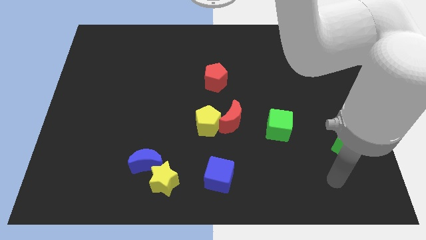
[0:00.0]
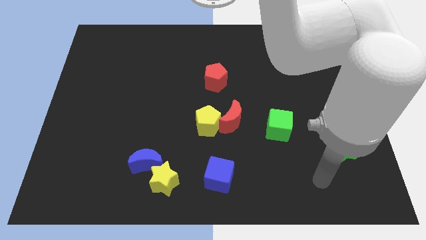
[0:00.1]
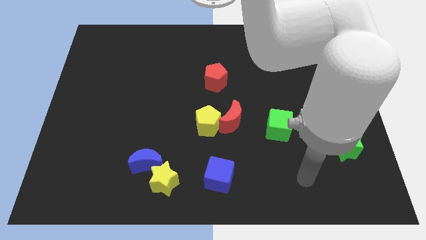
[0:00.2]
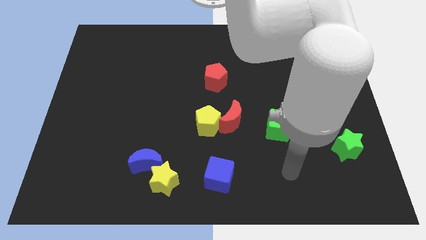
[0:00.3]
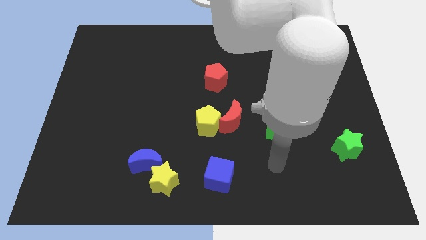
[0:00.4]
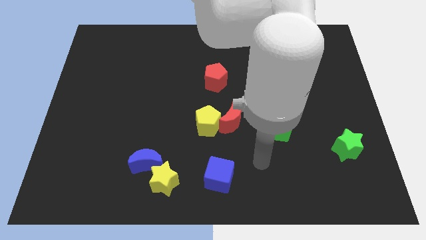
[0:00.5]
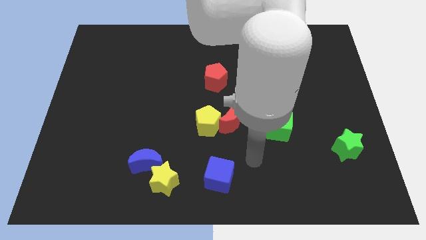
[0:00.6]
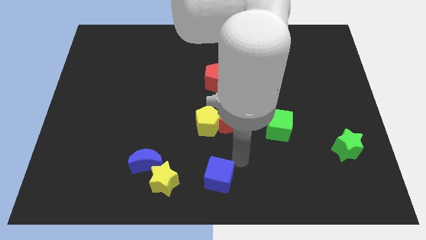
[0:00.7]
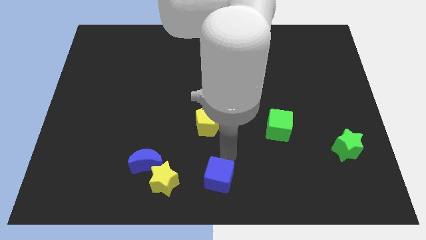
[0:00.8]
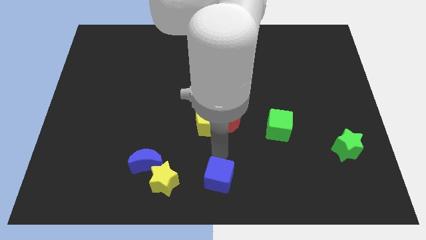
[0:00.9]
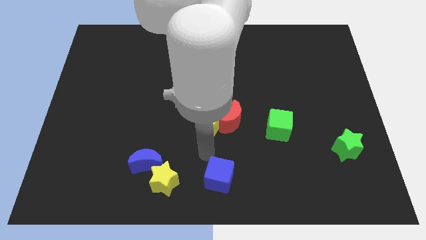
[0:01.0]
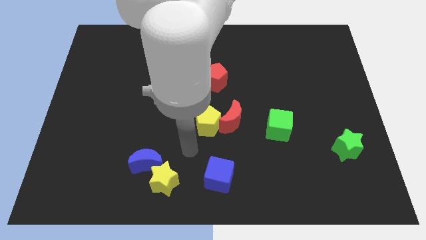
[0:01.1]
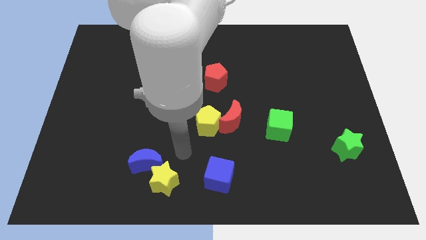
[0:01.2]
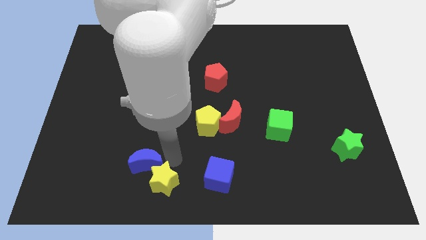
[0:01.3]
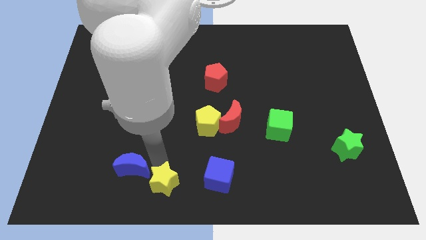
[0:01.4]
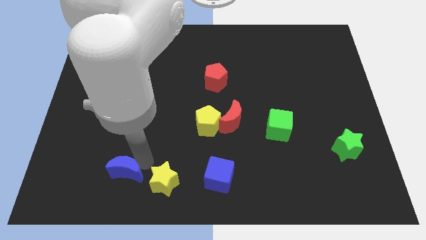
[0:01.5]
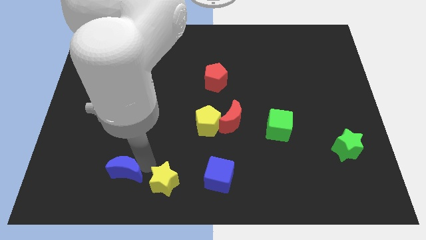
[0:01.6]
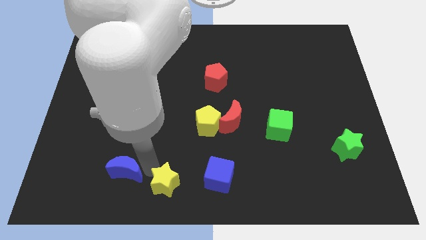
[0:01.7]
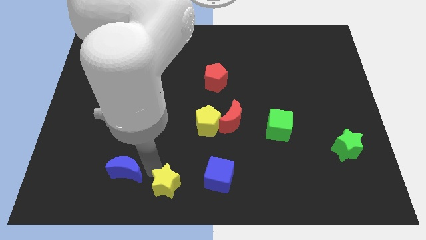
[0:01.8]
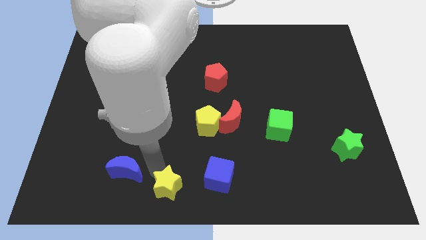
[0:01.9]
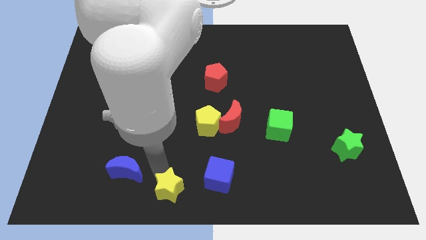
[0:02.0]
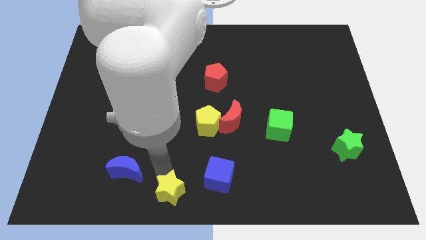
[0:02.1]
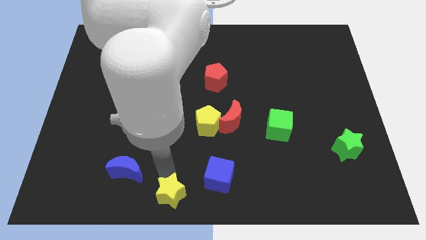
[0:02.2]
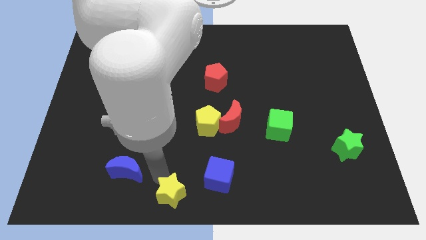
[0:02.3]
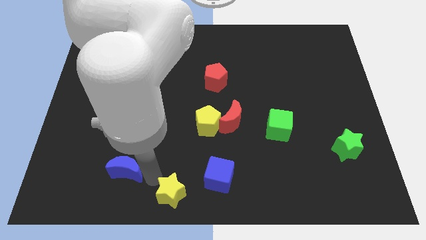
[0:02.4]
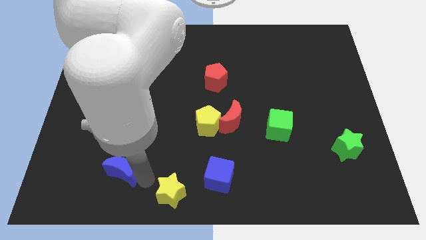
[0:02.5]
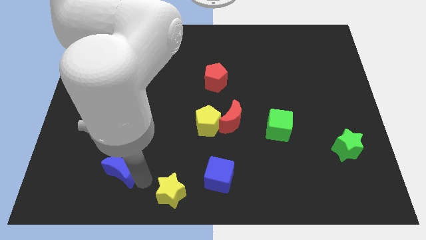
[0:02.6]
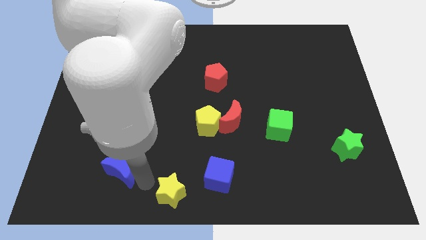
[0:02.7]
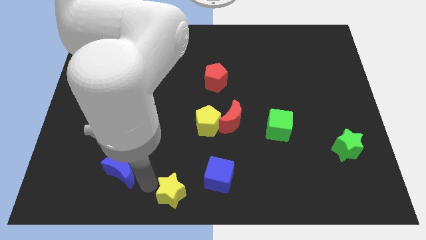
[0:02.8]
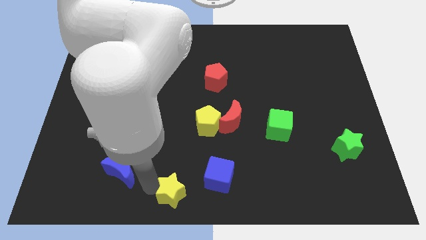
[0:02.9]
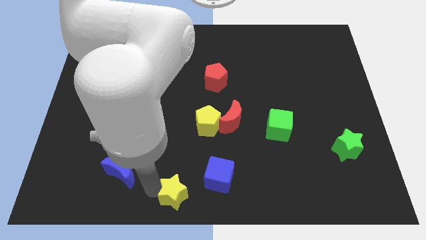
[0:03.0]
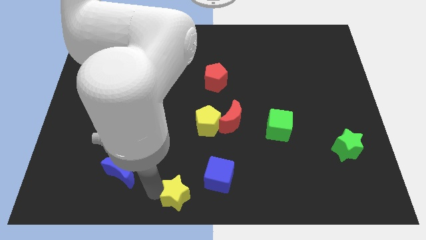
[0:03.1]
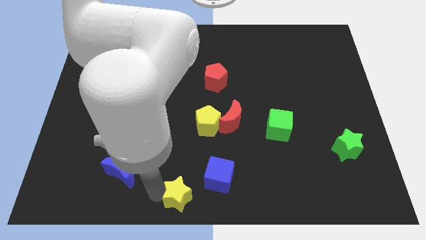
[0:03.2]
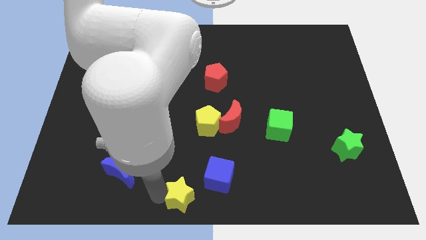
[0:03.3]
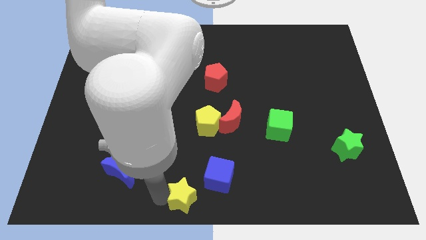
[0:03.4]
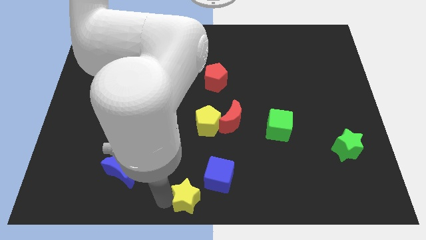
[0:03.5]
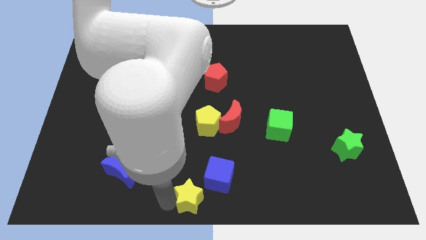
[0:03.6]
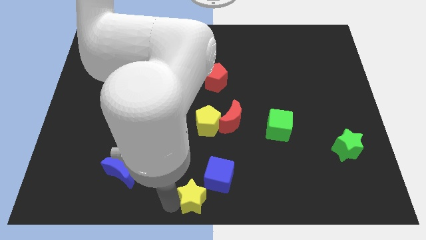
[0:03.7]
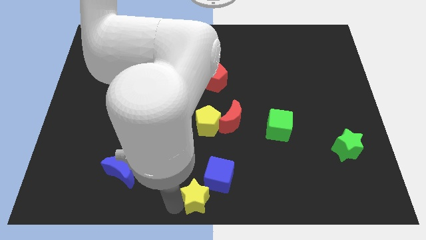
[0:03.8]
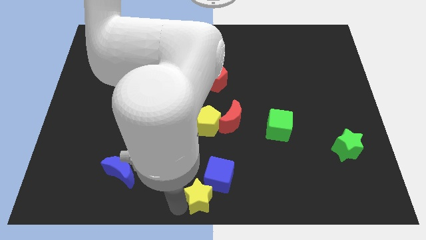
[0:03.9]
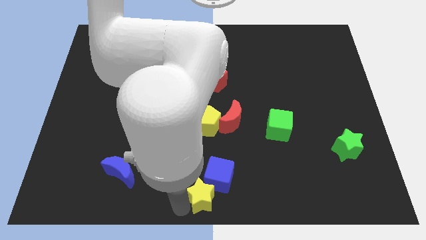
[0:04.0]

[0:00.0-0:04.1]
move the yellow star a little right

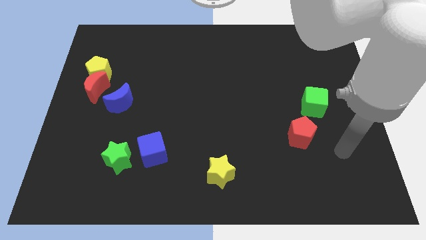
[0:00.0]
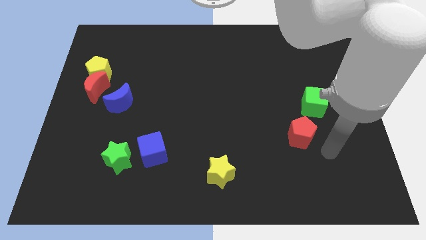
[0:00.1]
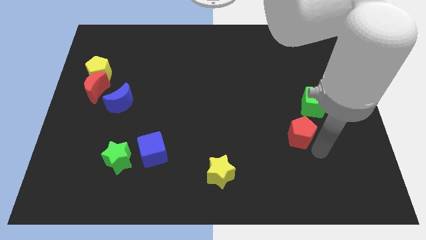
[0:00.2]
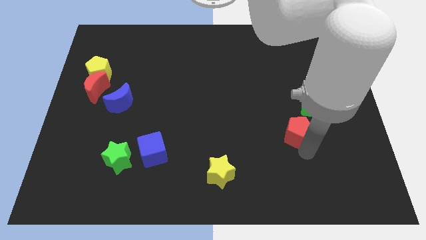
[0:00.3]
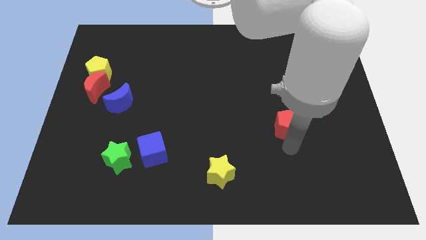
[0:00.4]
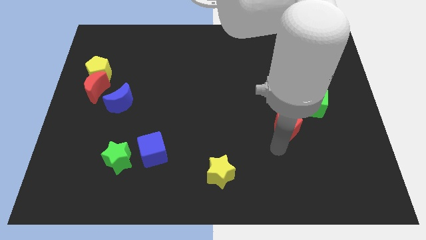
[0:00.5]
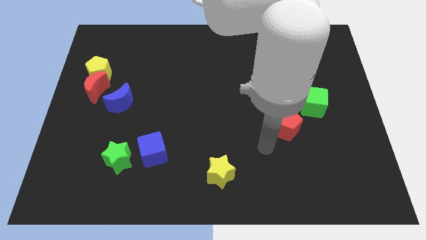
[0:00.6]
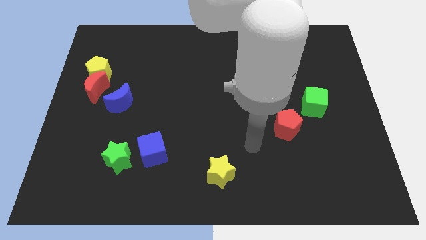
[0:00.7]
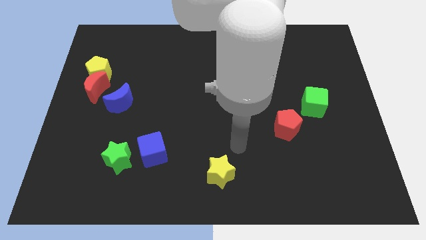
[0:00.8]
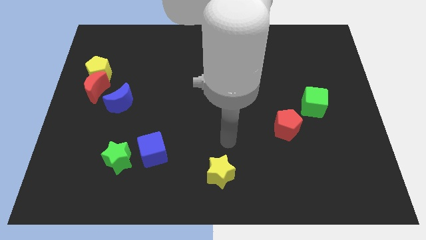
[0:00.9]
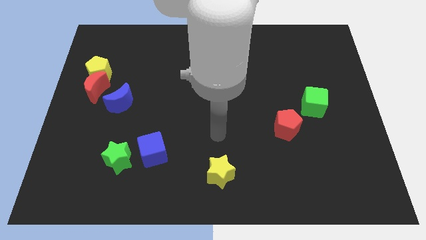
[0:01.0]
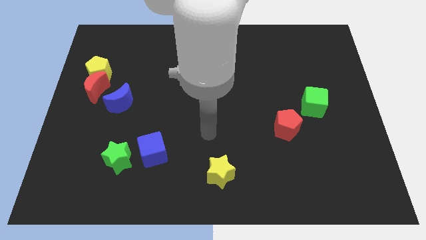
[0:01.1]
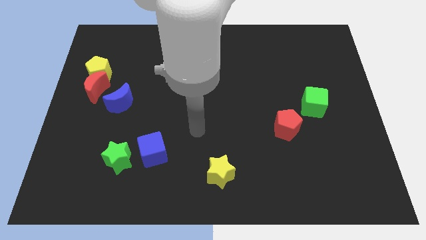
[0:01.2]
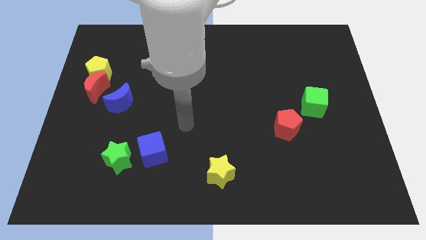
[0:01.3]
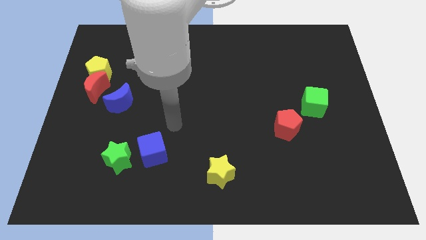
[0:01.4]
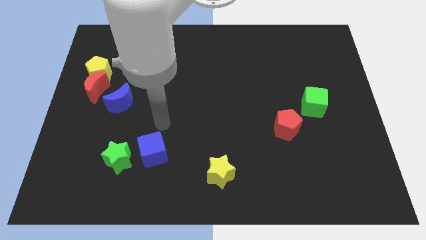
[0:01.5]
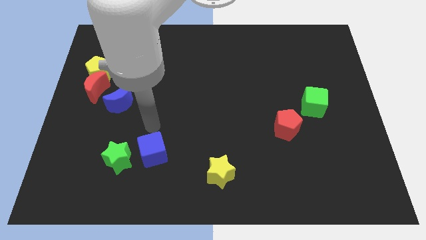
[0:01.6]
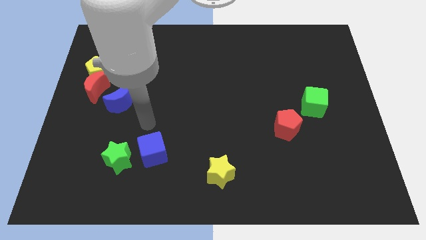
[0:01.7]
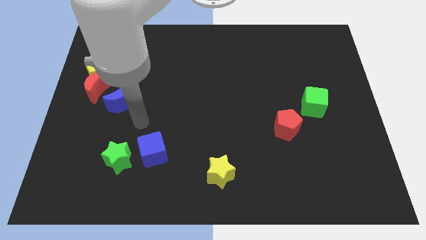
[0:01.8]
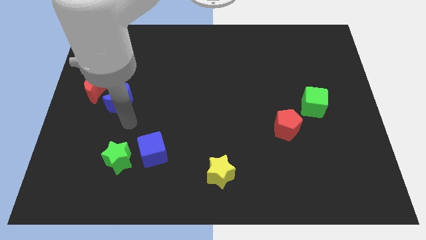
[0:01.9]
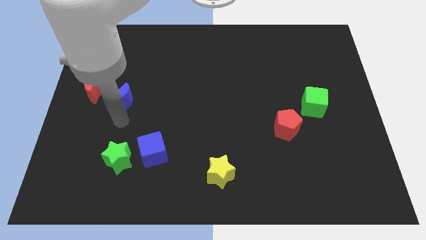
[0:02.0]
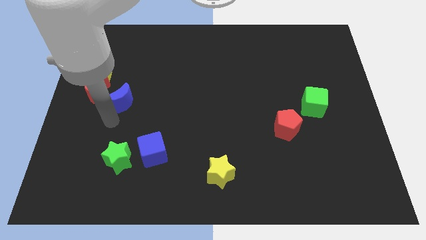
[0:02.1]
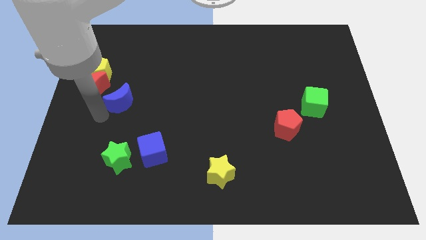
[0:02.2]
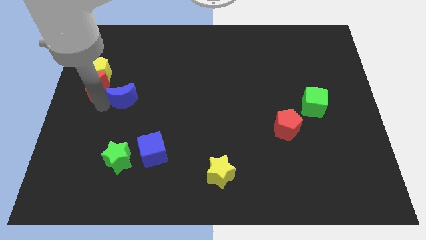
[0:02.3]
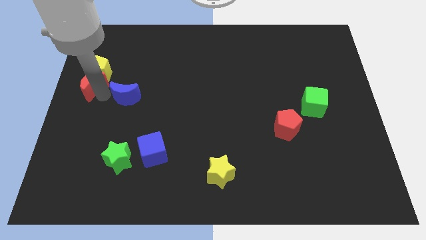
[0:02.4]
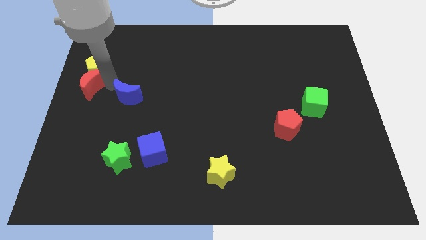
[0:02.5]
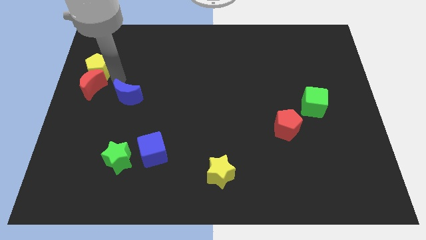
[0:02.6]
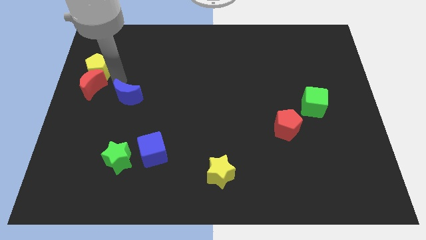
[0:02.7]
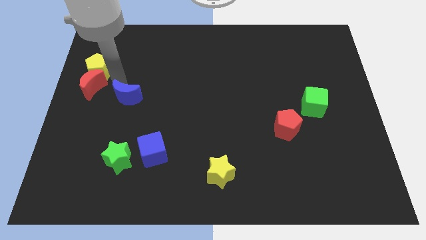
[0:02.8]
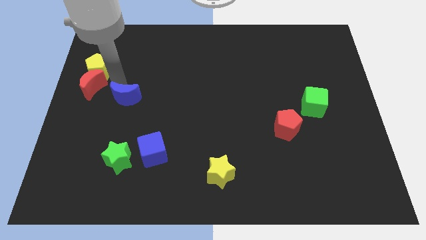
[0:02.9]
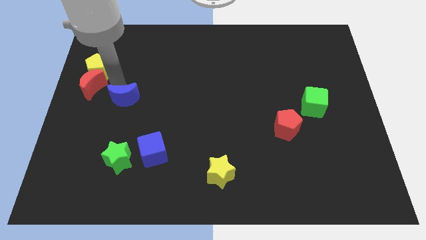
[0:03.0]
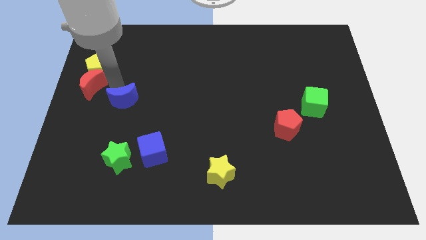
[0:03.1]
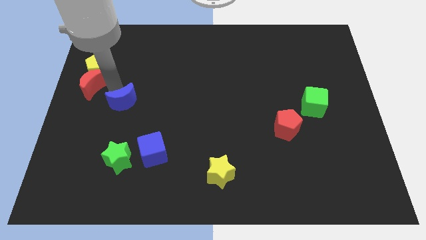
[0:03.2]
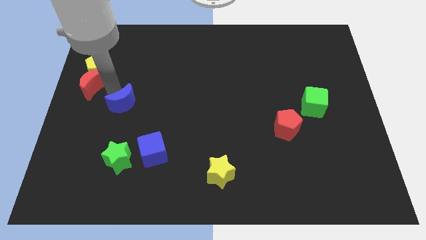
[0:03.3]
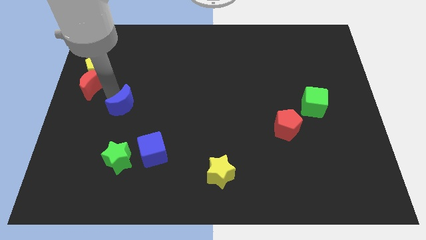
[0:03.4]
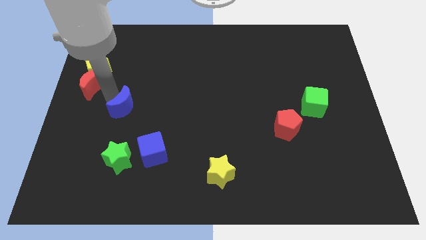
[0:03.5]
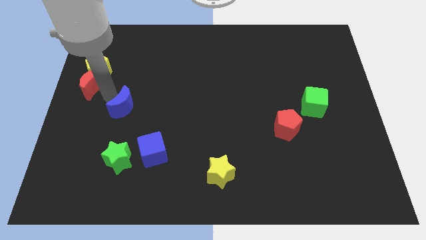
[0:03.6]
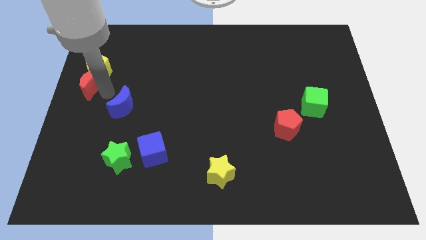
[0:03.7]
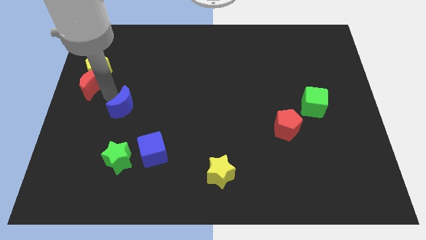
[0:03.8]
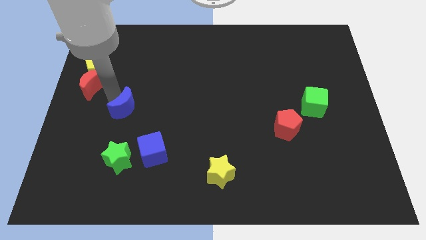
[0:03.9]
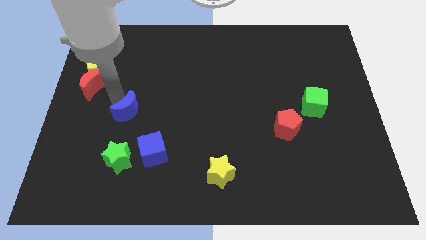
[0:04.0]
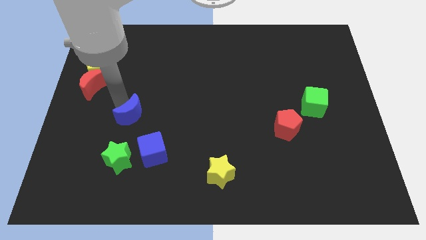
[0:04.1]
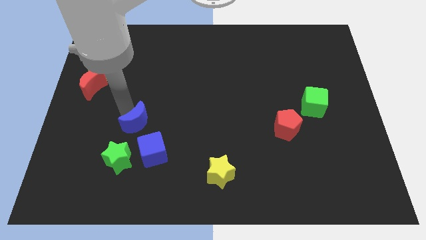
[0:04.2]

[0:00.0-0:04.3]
slightly slide the blue moon diagonally downwards and to the right
